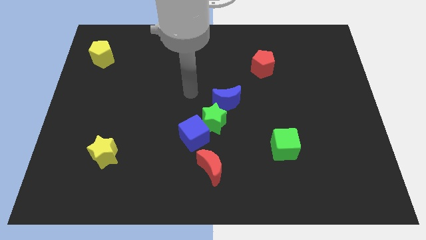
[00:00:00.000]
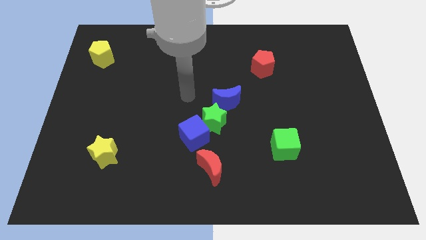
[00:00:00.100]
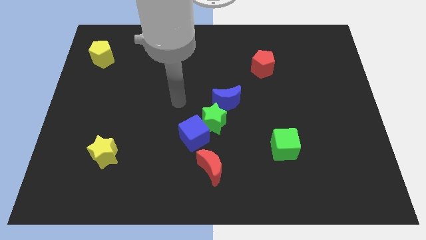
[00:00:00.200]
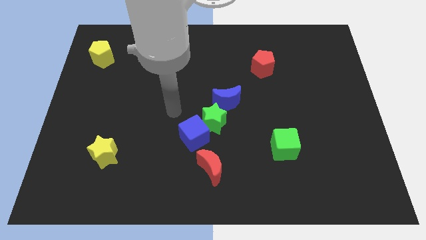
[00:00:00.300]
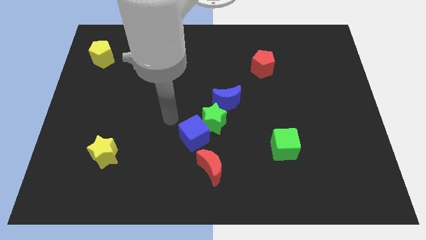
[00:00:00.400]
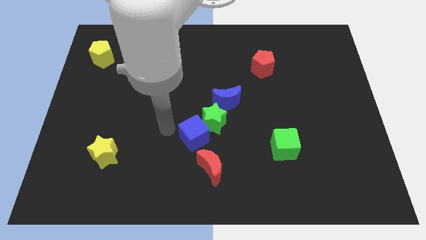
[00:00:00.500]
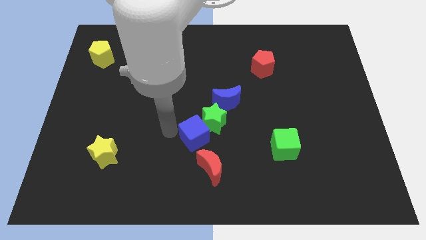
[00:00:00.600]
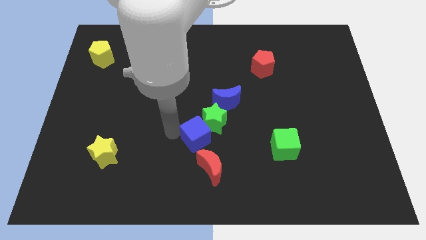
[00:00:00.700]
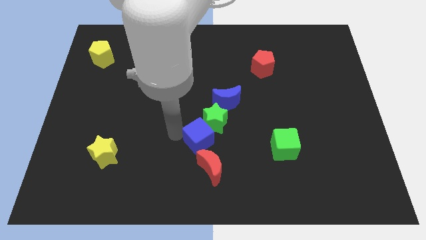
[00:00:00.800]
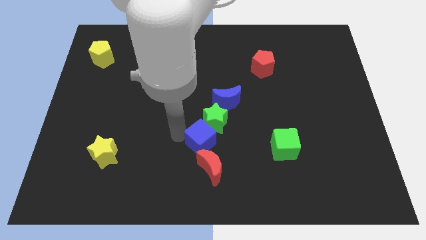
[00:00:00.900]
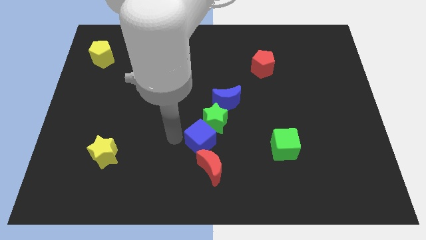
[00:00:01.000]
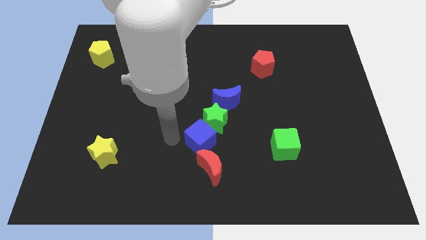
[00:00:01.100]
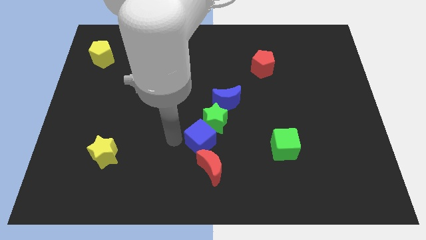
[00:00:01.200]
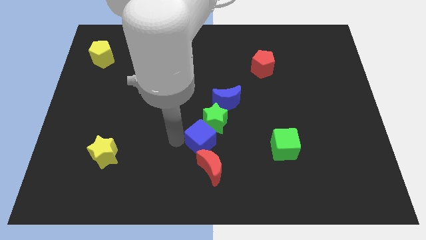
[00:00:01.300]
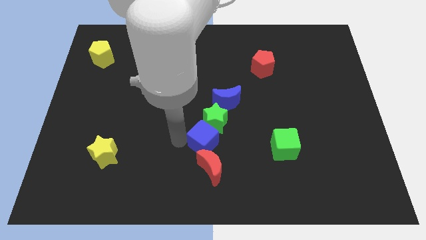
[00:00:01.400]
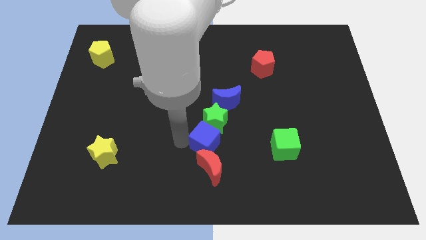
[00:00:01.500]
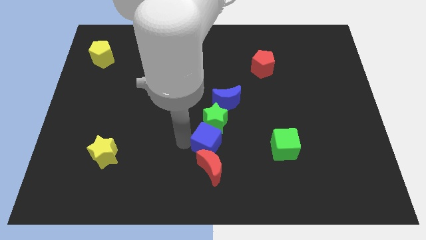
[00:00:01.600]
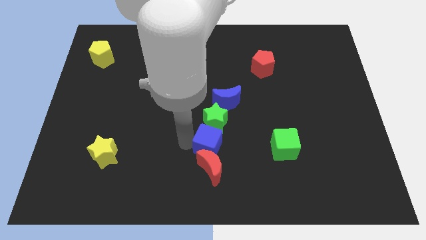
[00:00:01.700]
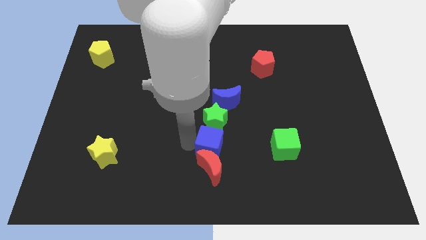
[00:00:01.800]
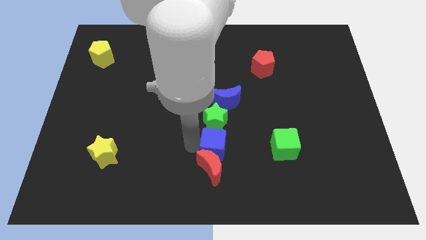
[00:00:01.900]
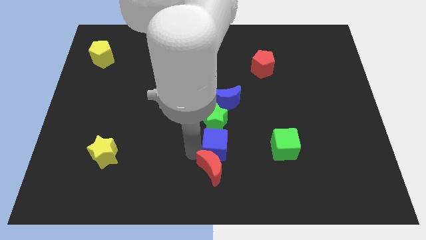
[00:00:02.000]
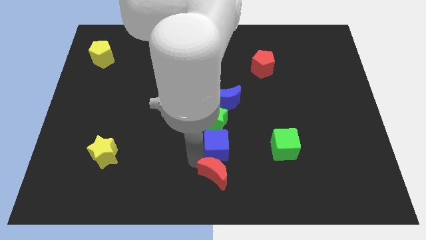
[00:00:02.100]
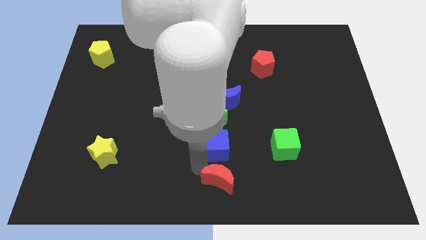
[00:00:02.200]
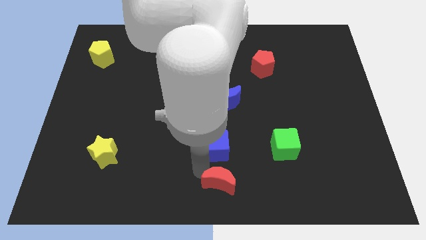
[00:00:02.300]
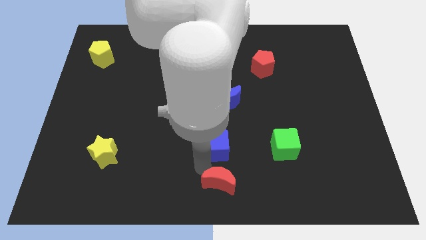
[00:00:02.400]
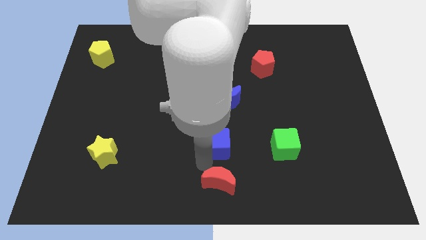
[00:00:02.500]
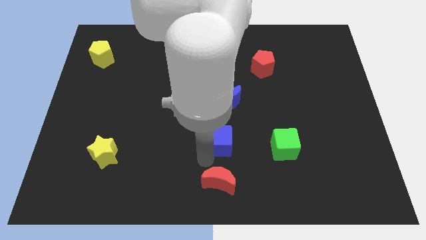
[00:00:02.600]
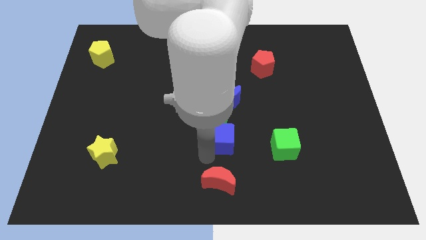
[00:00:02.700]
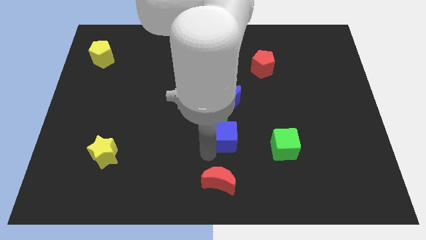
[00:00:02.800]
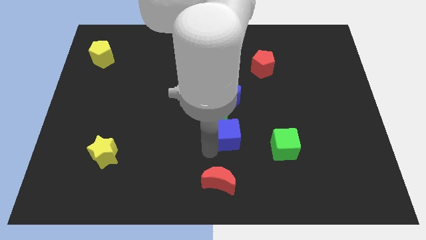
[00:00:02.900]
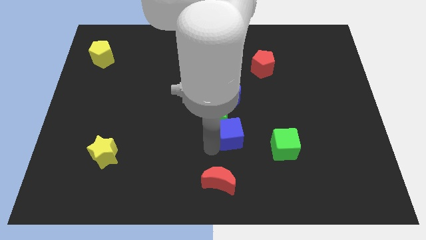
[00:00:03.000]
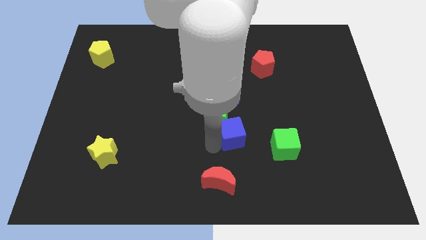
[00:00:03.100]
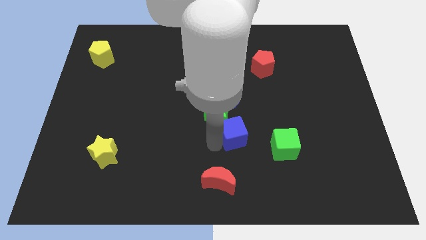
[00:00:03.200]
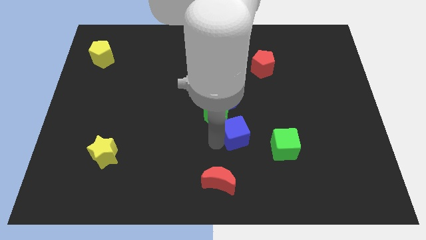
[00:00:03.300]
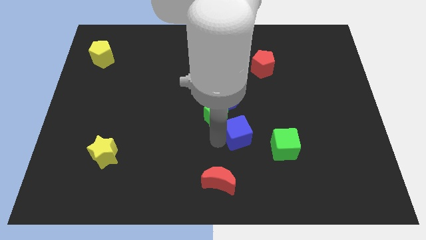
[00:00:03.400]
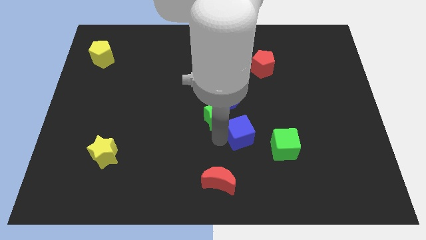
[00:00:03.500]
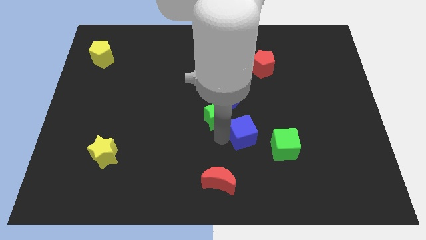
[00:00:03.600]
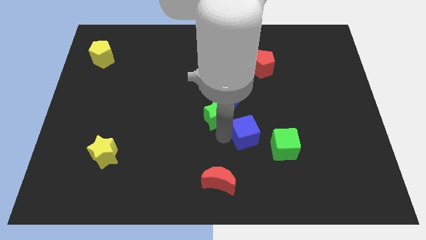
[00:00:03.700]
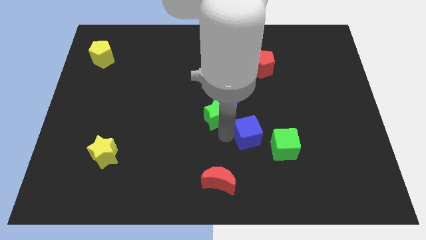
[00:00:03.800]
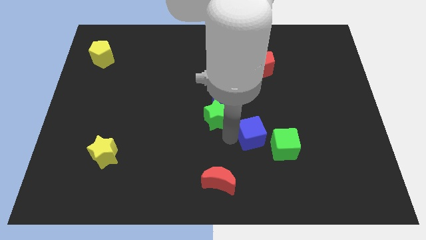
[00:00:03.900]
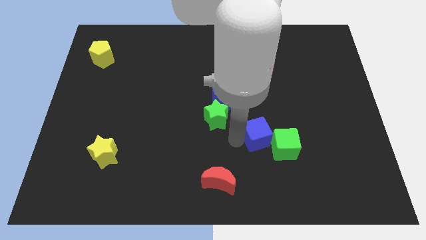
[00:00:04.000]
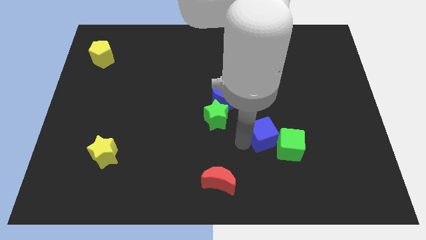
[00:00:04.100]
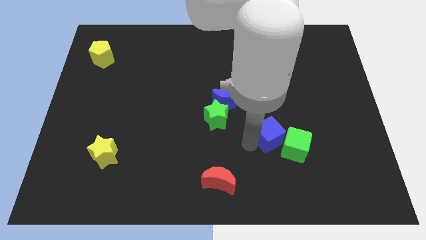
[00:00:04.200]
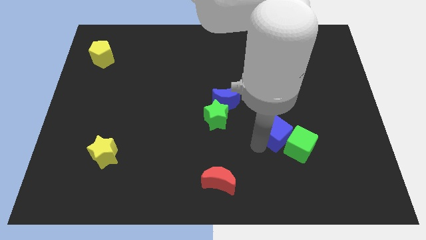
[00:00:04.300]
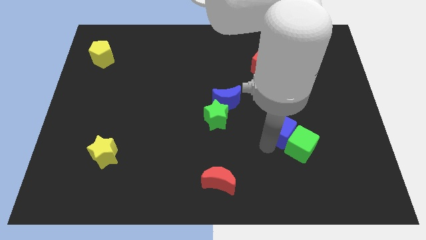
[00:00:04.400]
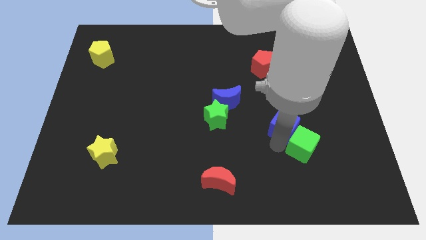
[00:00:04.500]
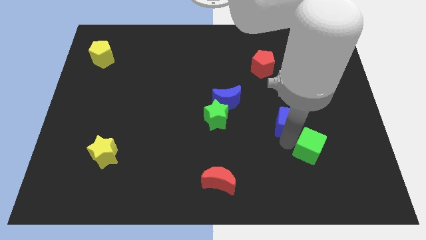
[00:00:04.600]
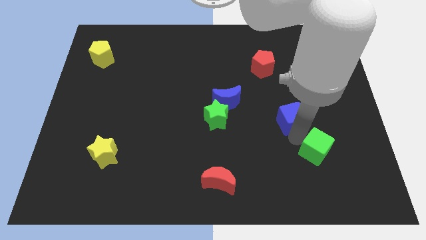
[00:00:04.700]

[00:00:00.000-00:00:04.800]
push the blue cube up and to the right a little bit

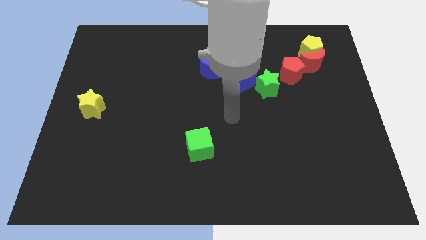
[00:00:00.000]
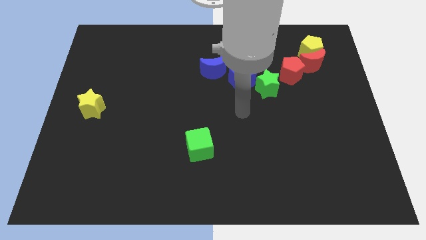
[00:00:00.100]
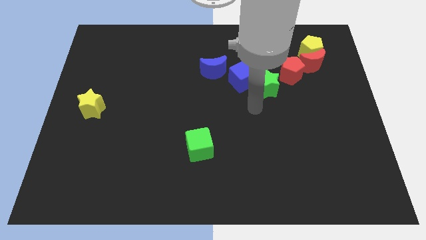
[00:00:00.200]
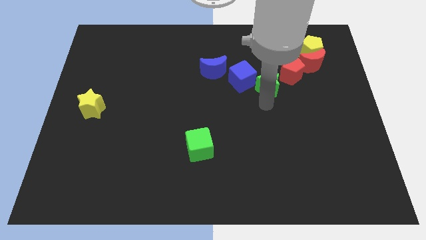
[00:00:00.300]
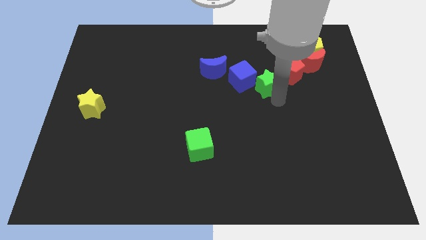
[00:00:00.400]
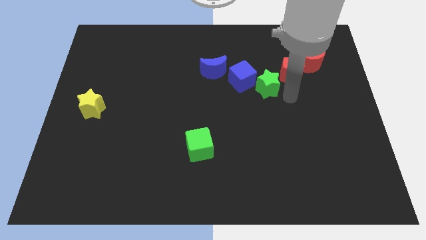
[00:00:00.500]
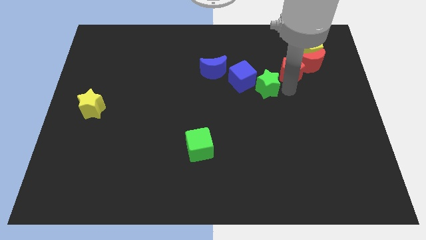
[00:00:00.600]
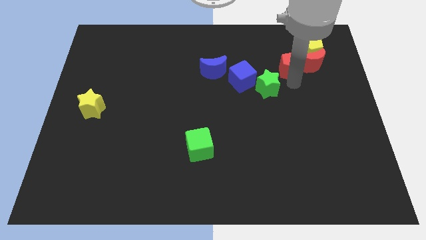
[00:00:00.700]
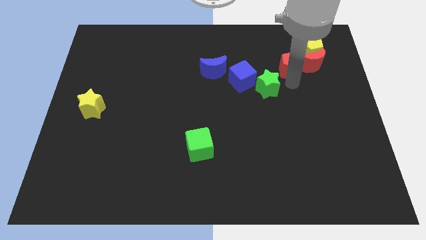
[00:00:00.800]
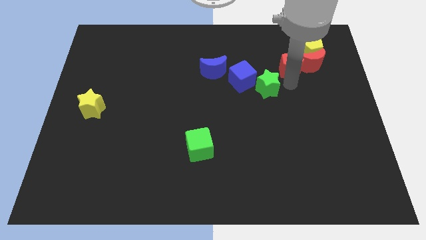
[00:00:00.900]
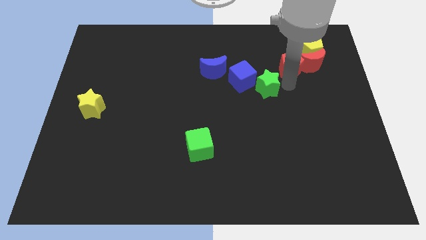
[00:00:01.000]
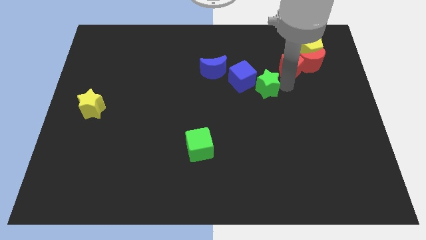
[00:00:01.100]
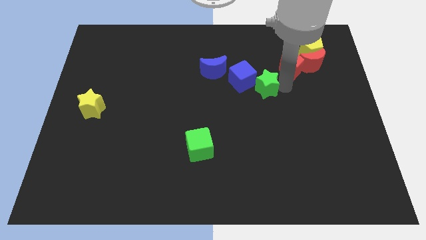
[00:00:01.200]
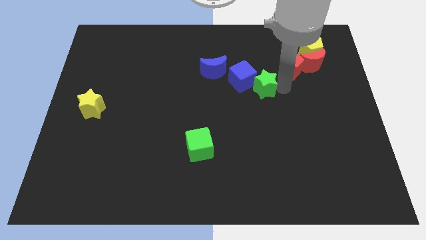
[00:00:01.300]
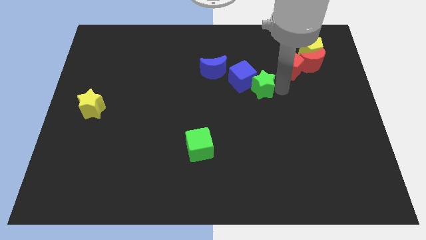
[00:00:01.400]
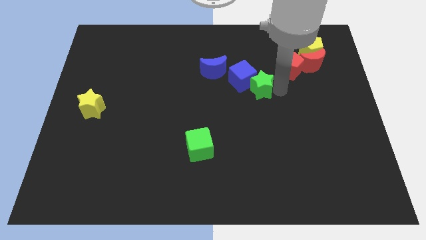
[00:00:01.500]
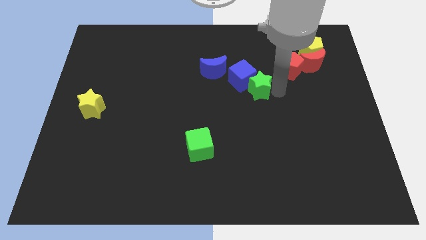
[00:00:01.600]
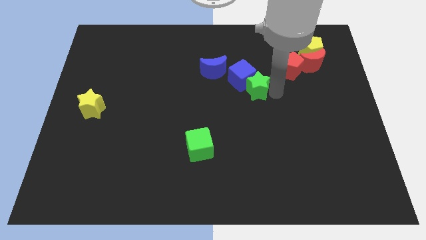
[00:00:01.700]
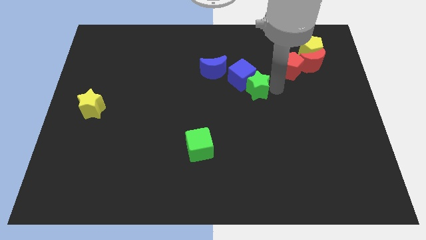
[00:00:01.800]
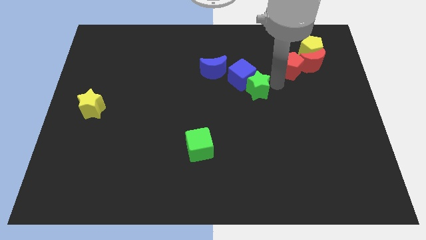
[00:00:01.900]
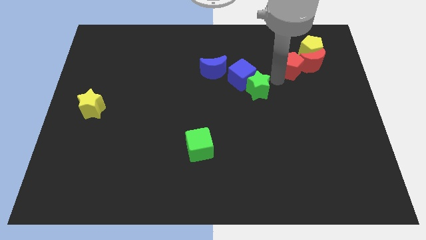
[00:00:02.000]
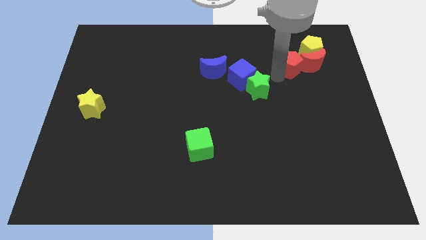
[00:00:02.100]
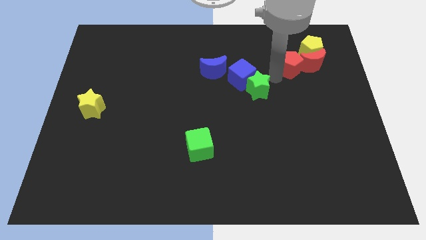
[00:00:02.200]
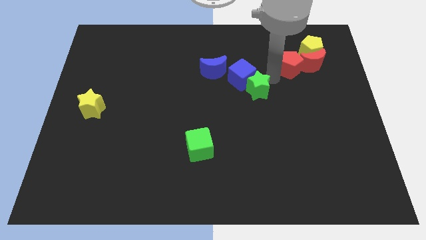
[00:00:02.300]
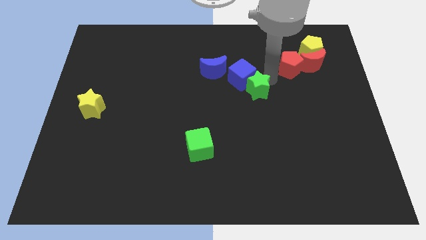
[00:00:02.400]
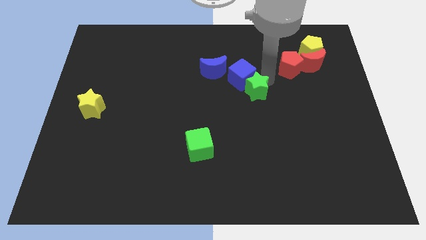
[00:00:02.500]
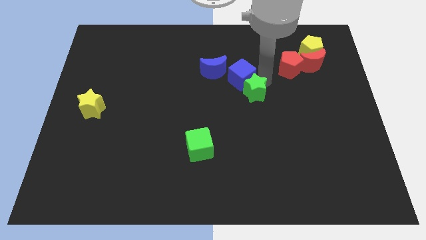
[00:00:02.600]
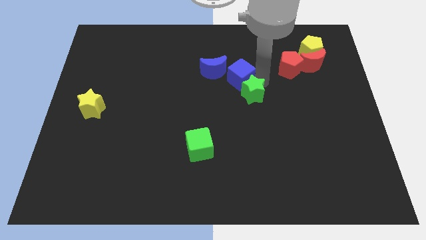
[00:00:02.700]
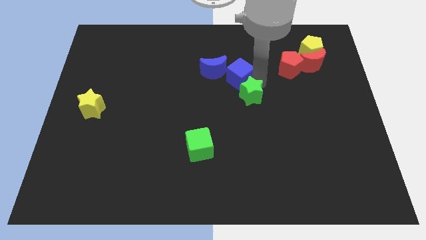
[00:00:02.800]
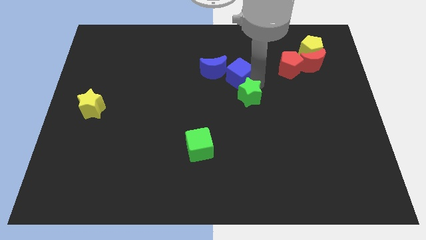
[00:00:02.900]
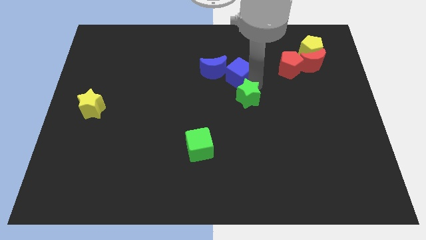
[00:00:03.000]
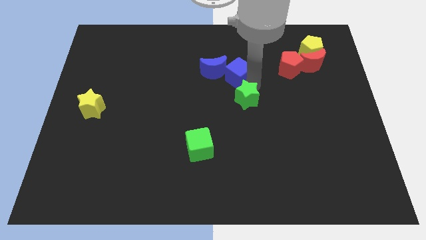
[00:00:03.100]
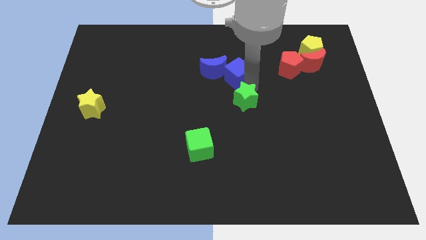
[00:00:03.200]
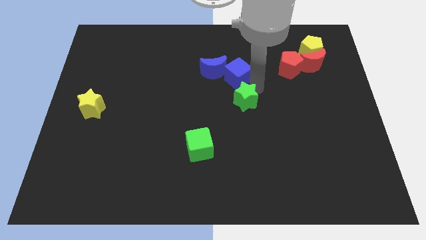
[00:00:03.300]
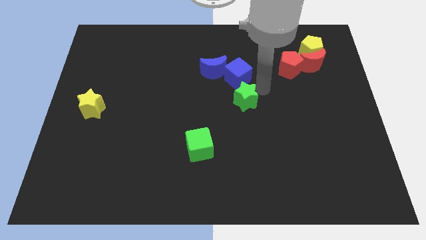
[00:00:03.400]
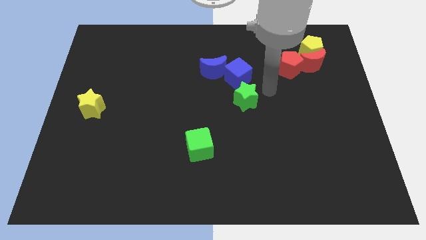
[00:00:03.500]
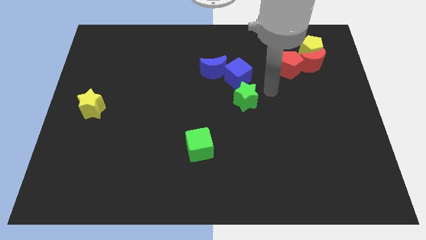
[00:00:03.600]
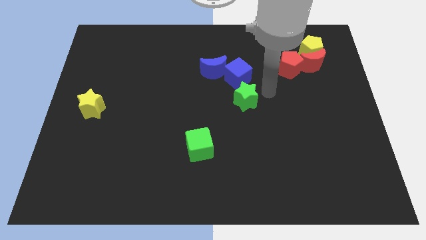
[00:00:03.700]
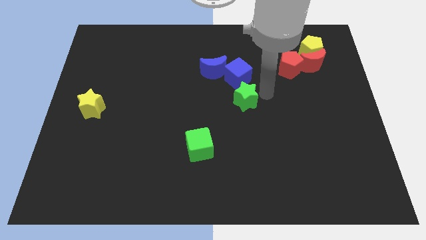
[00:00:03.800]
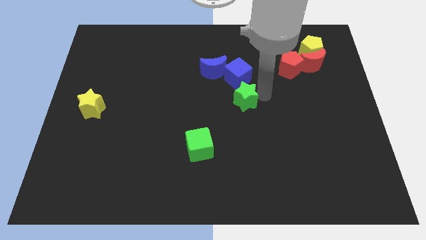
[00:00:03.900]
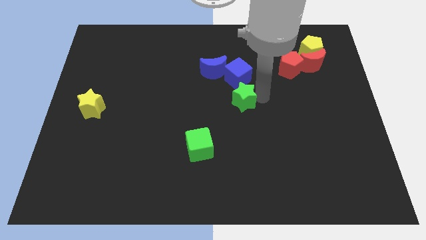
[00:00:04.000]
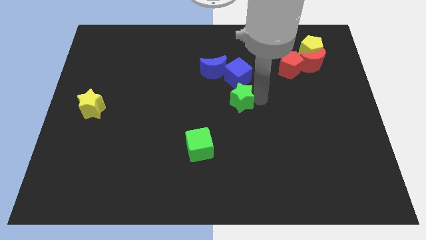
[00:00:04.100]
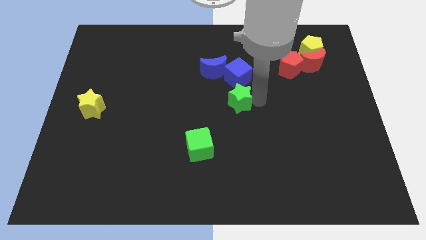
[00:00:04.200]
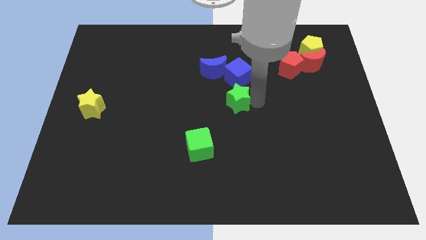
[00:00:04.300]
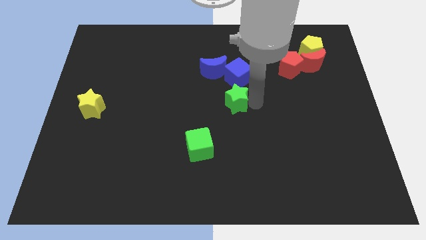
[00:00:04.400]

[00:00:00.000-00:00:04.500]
slightly slide the green star left
